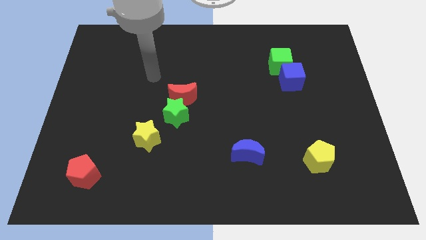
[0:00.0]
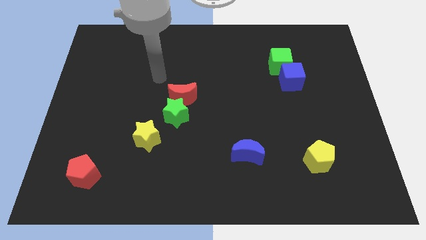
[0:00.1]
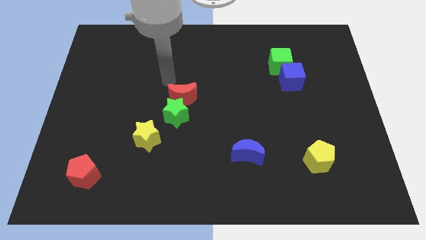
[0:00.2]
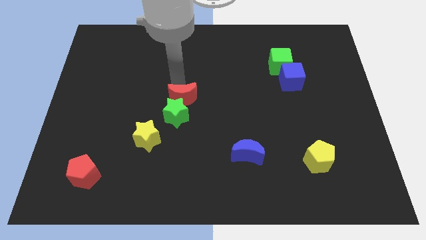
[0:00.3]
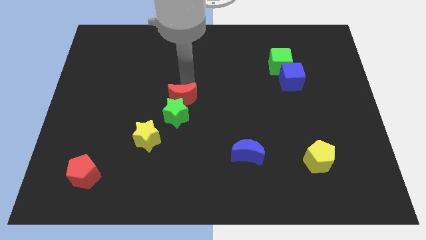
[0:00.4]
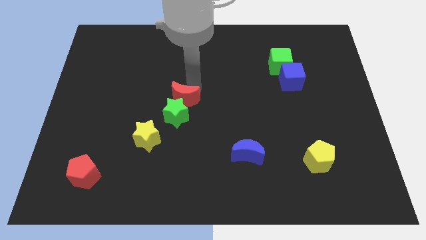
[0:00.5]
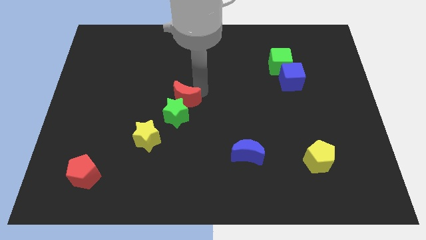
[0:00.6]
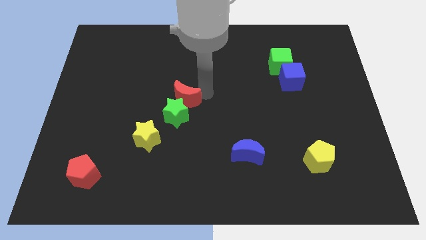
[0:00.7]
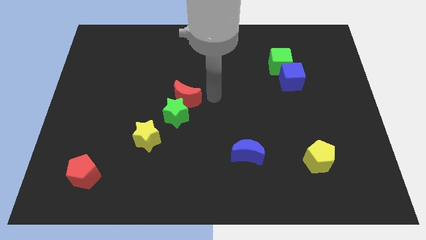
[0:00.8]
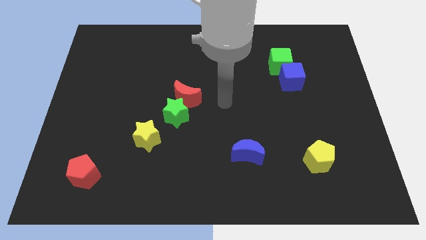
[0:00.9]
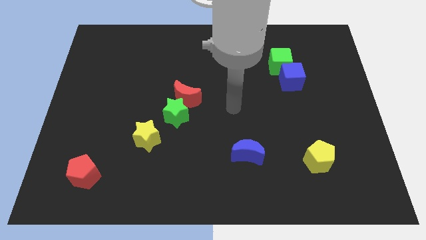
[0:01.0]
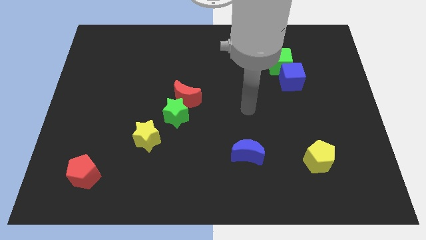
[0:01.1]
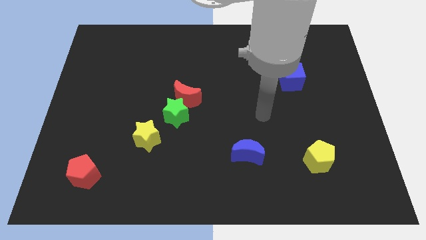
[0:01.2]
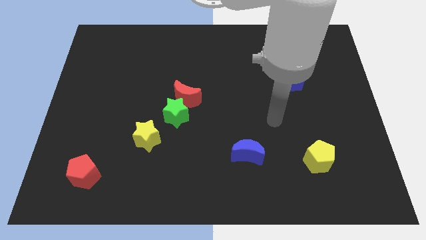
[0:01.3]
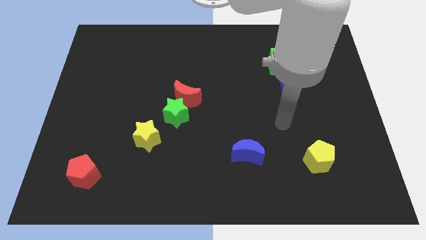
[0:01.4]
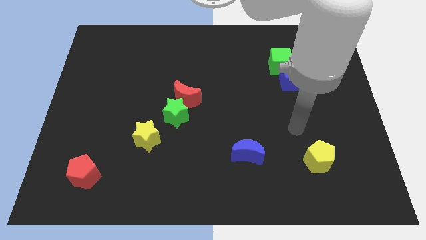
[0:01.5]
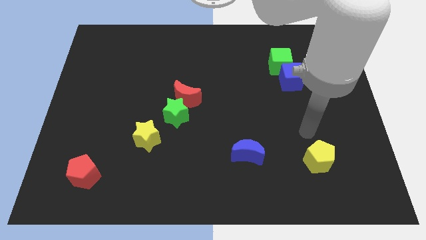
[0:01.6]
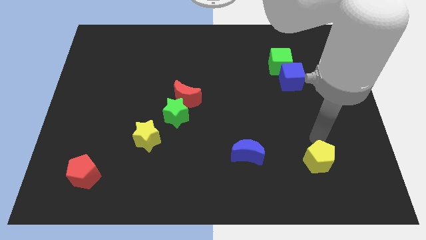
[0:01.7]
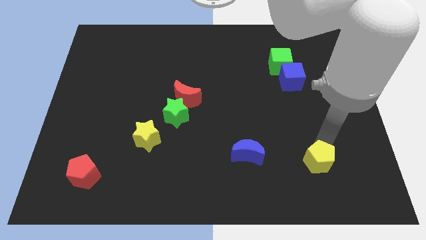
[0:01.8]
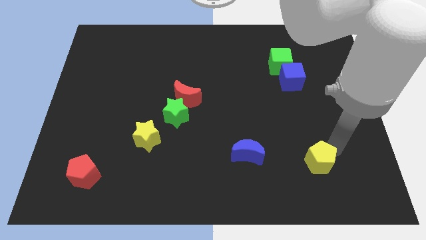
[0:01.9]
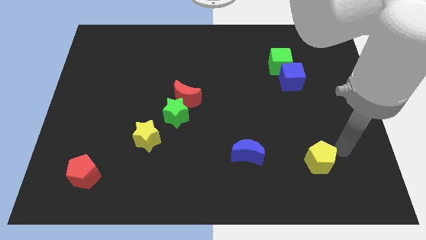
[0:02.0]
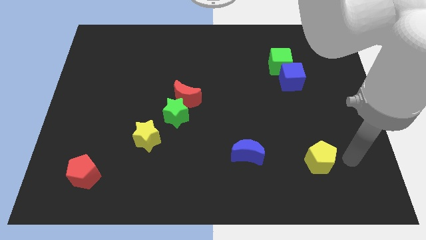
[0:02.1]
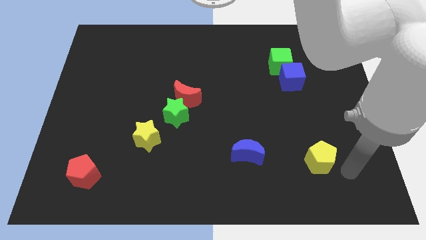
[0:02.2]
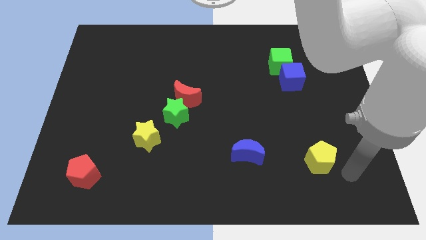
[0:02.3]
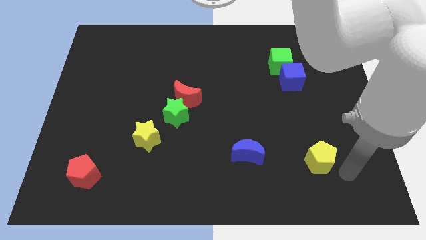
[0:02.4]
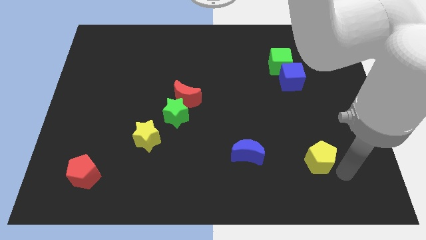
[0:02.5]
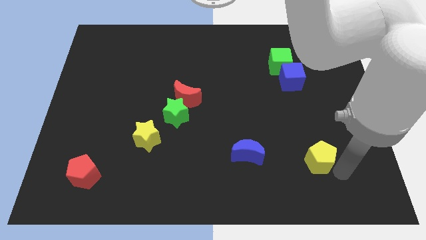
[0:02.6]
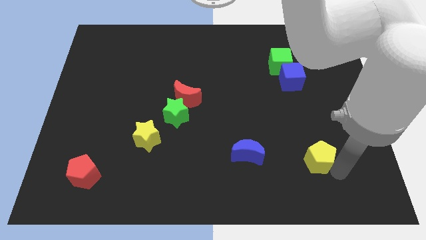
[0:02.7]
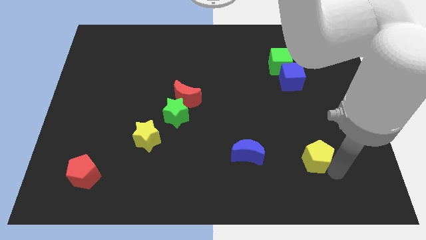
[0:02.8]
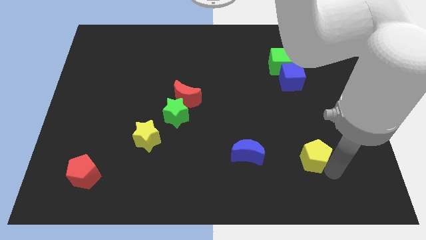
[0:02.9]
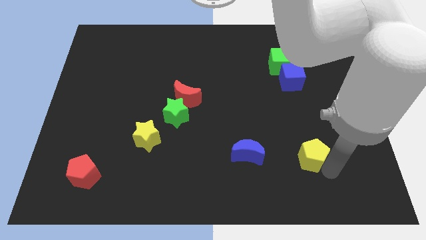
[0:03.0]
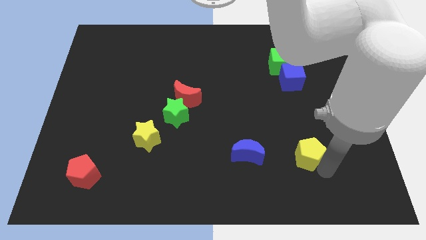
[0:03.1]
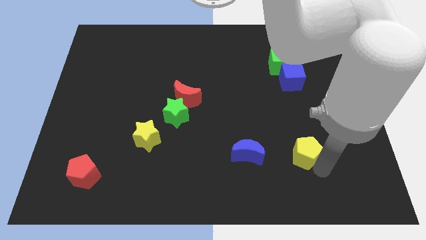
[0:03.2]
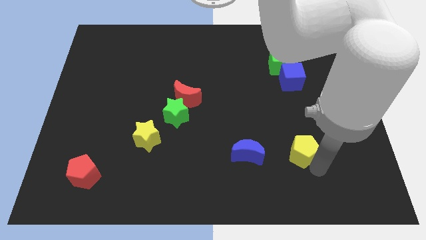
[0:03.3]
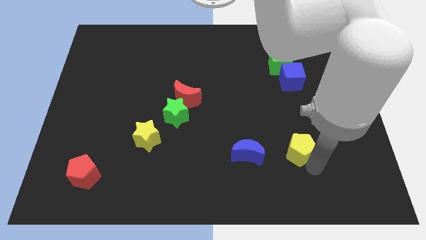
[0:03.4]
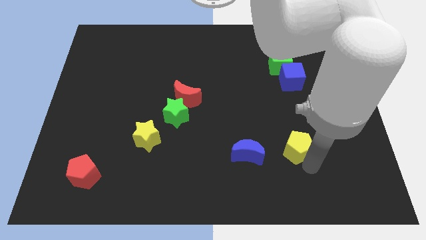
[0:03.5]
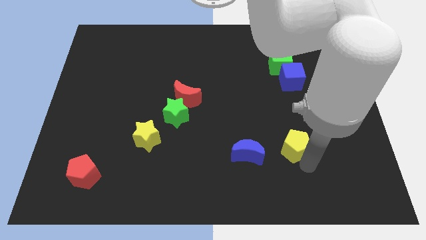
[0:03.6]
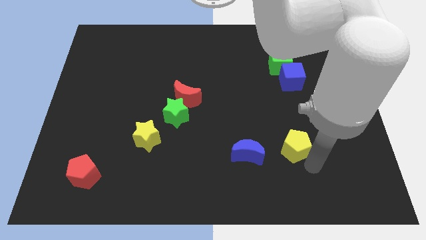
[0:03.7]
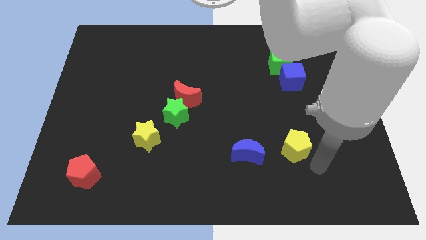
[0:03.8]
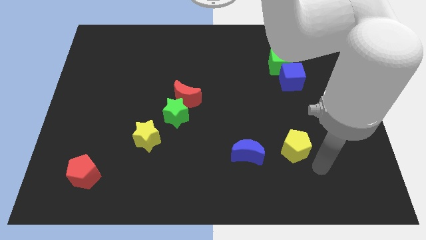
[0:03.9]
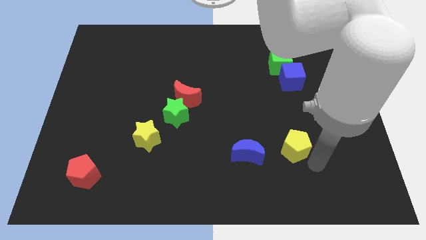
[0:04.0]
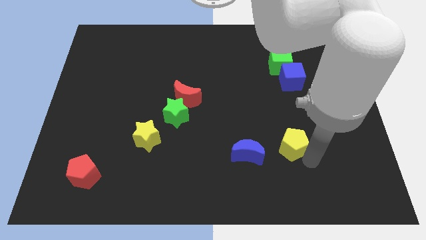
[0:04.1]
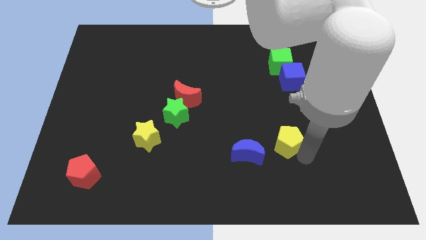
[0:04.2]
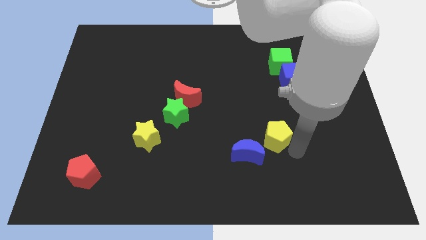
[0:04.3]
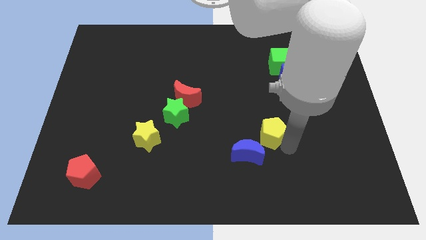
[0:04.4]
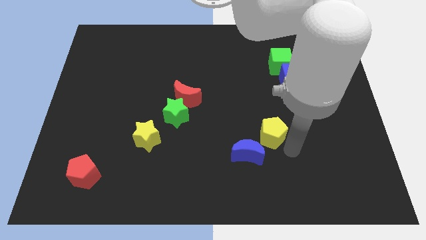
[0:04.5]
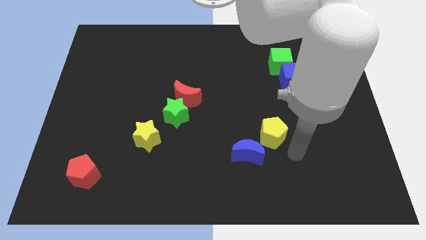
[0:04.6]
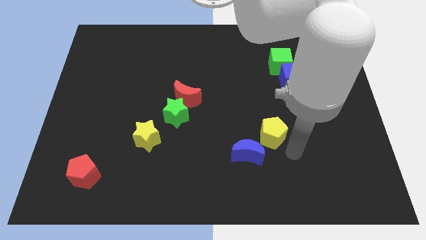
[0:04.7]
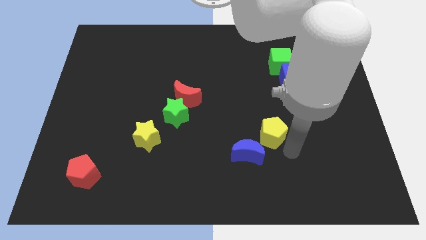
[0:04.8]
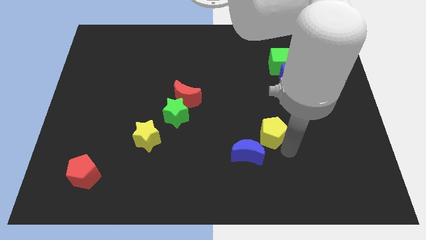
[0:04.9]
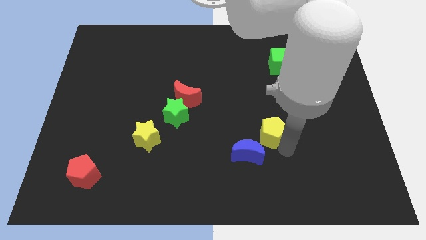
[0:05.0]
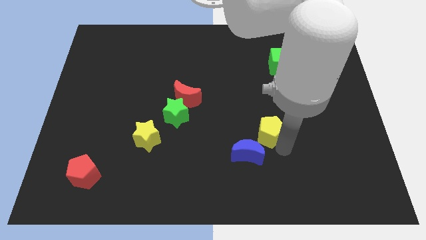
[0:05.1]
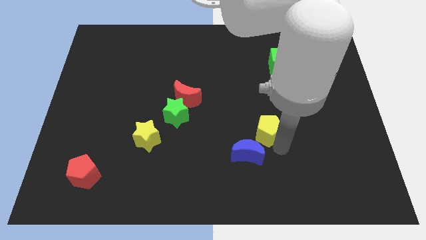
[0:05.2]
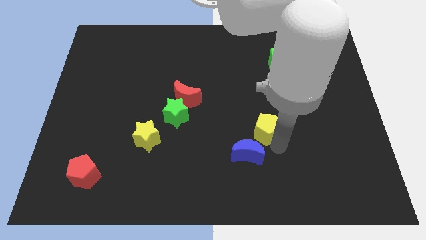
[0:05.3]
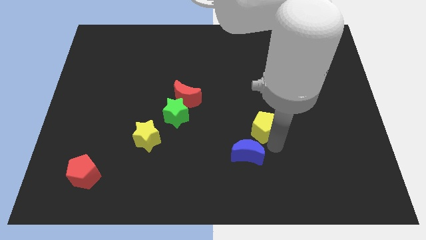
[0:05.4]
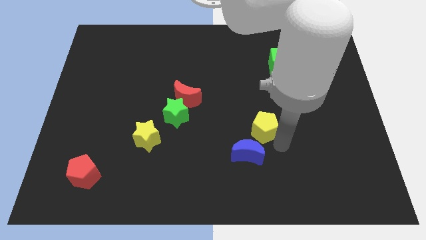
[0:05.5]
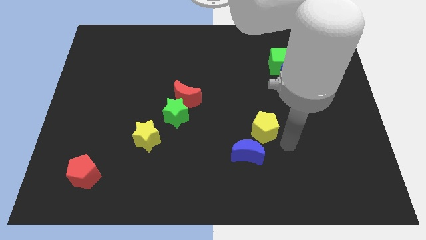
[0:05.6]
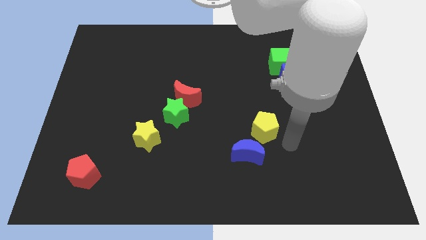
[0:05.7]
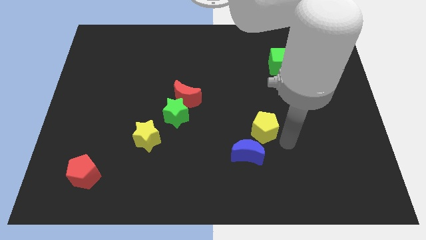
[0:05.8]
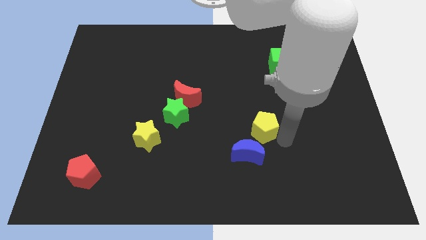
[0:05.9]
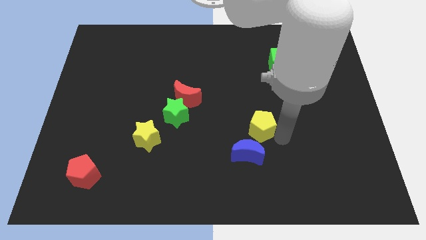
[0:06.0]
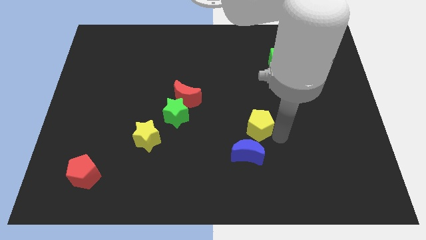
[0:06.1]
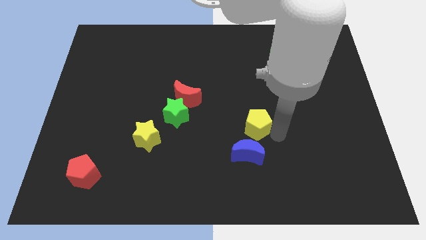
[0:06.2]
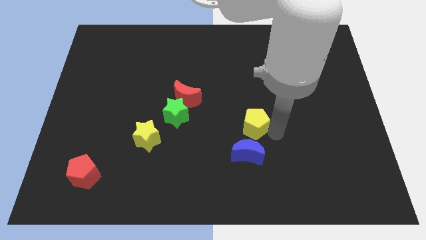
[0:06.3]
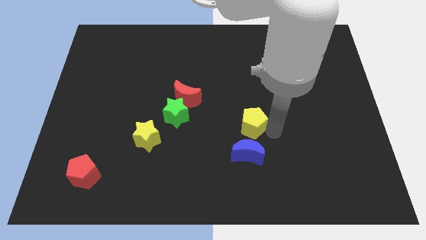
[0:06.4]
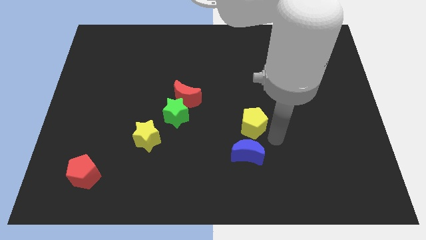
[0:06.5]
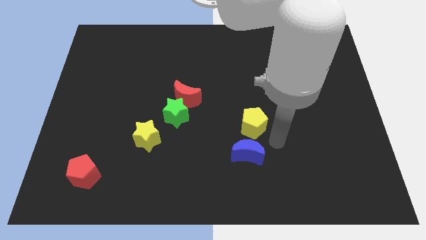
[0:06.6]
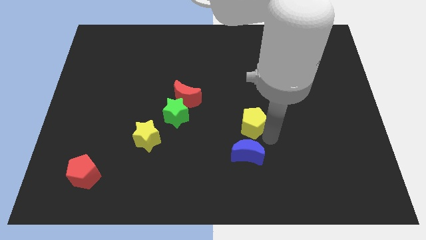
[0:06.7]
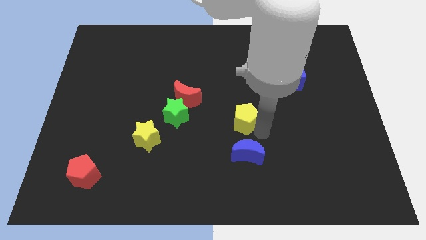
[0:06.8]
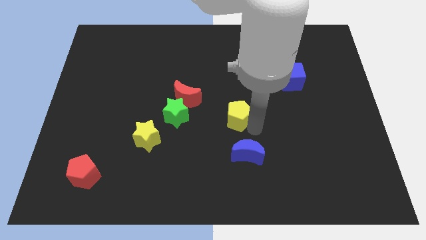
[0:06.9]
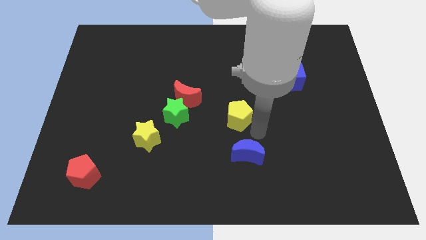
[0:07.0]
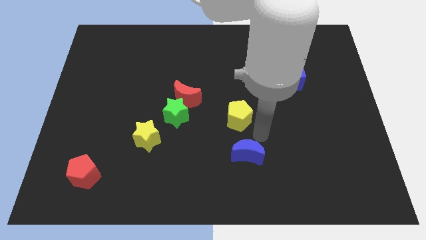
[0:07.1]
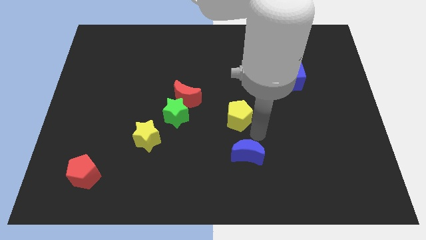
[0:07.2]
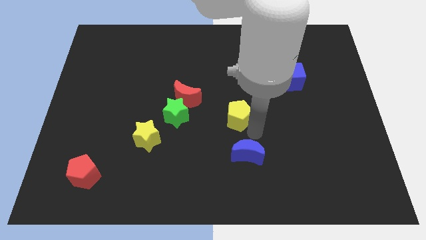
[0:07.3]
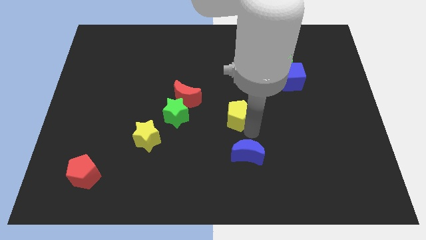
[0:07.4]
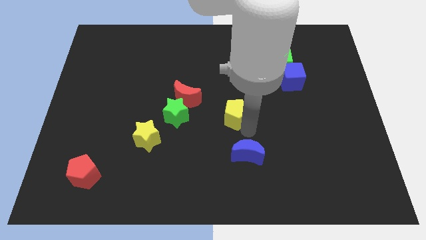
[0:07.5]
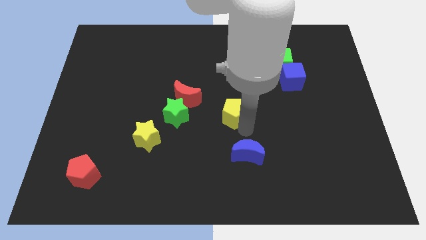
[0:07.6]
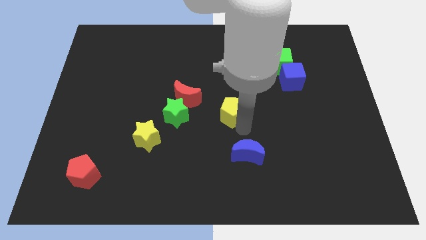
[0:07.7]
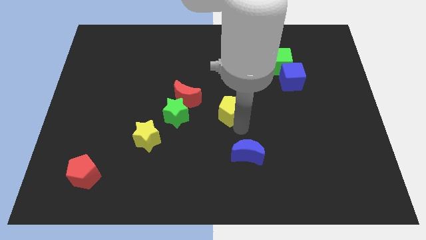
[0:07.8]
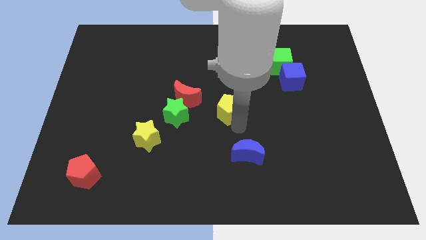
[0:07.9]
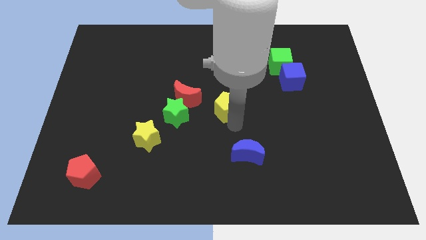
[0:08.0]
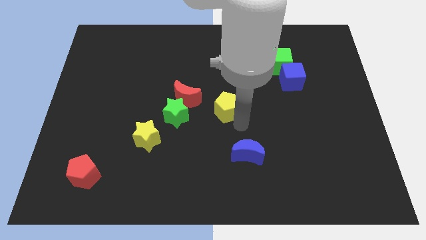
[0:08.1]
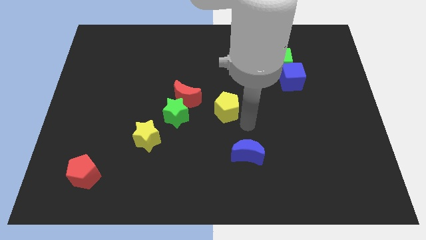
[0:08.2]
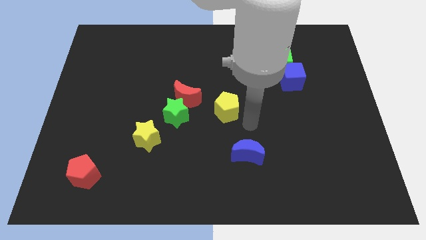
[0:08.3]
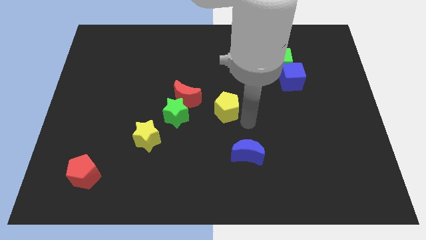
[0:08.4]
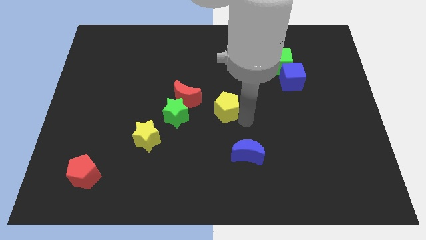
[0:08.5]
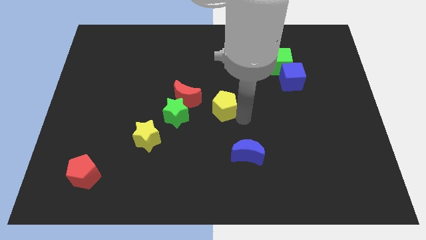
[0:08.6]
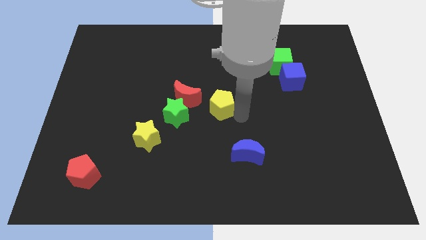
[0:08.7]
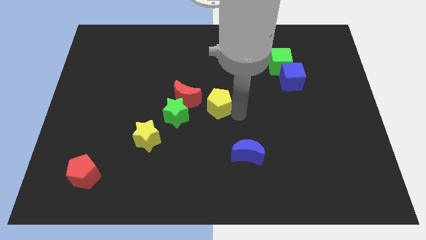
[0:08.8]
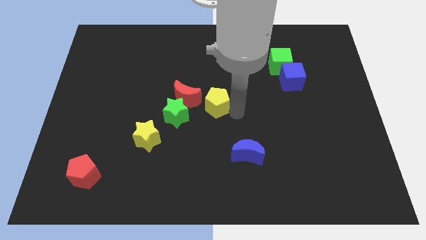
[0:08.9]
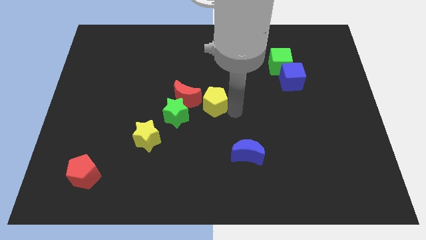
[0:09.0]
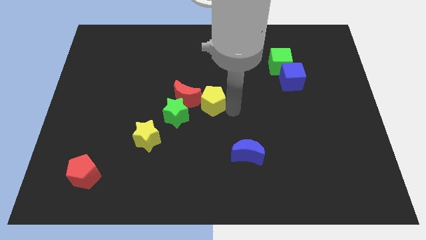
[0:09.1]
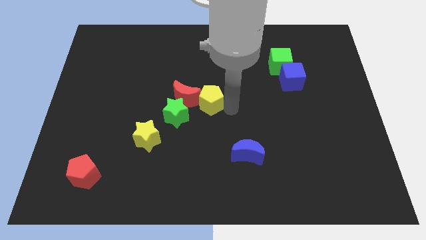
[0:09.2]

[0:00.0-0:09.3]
push the yellow pentagon to the red moon
